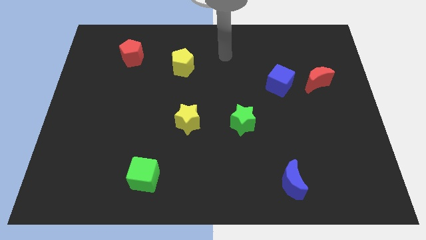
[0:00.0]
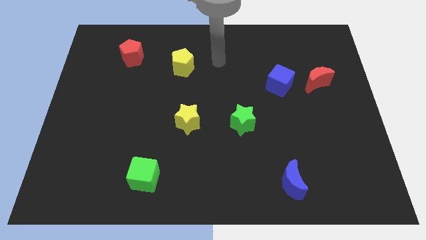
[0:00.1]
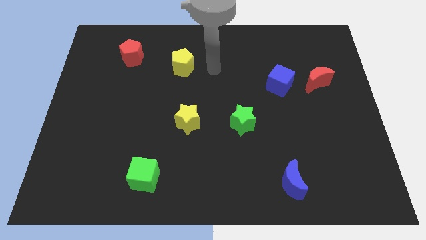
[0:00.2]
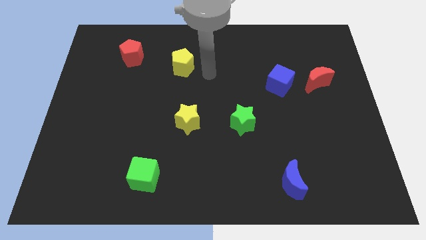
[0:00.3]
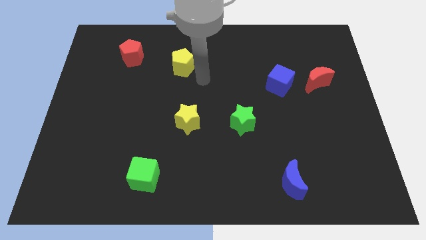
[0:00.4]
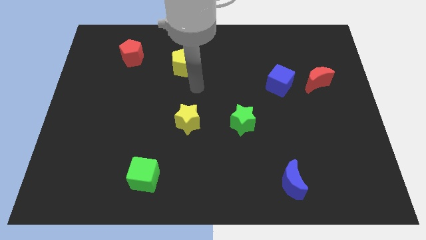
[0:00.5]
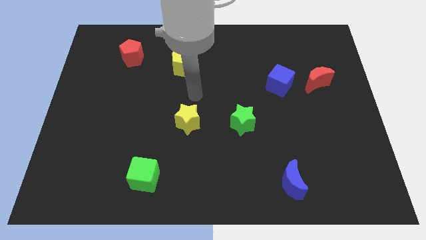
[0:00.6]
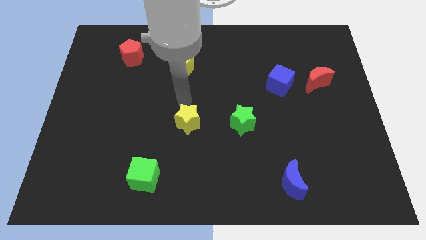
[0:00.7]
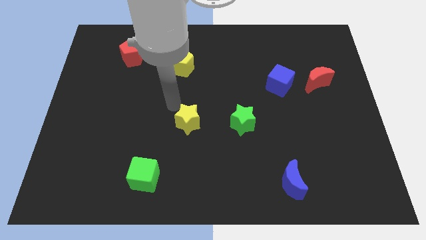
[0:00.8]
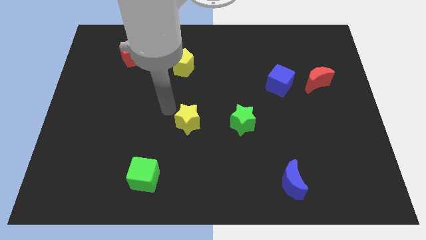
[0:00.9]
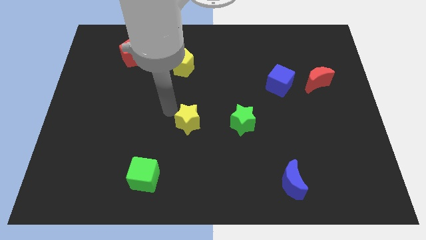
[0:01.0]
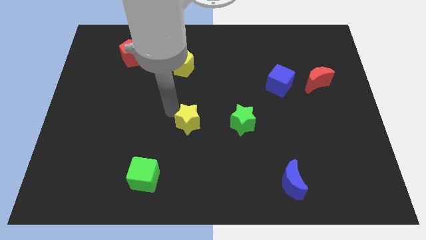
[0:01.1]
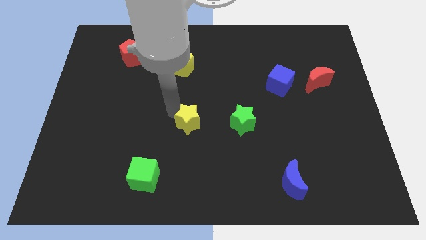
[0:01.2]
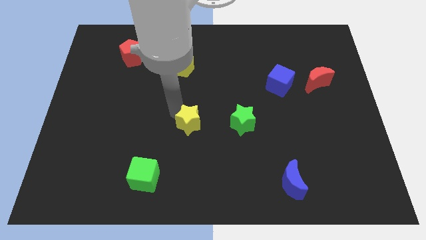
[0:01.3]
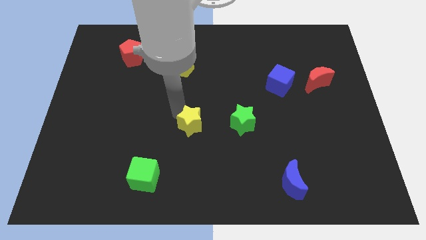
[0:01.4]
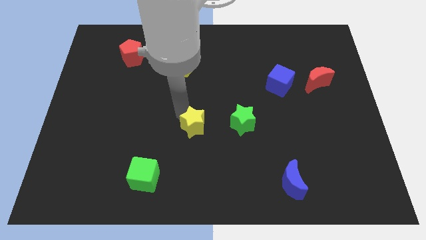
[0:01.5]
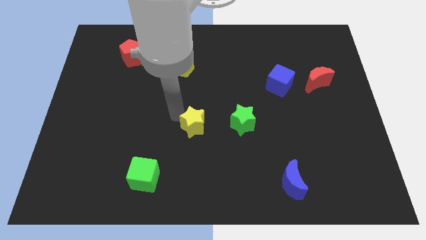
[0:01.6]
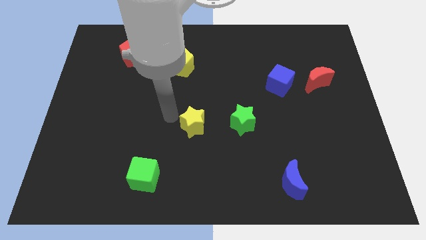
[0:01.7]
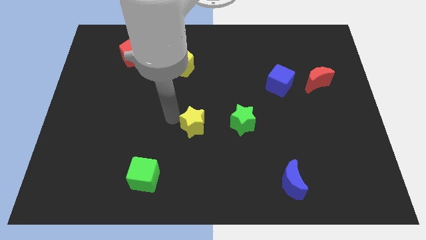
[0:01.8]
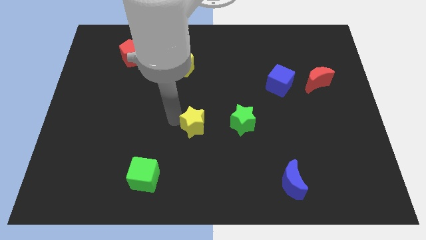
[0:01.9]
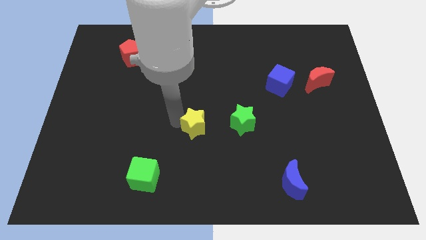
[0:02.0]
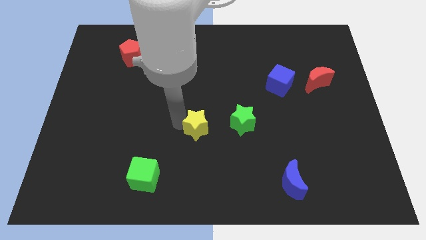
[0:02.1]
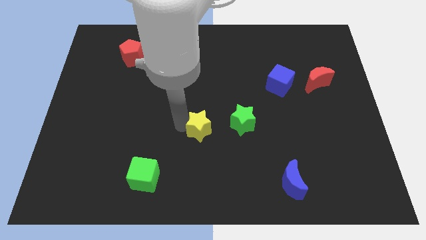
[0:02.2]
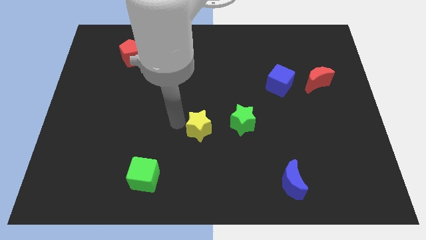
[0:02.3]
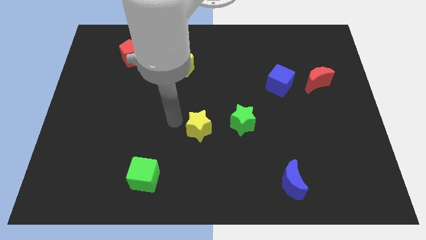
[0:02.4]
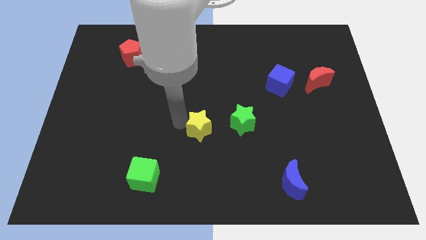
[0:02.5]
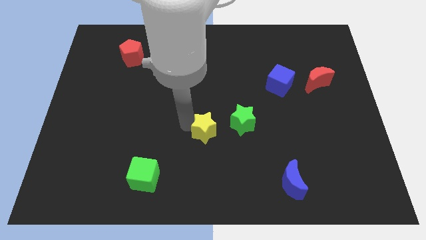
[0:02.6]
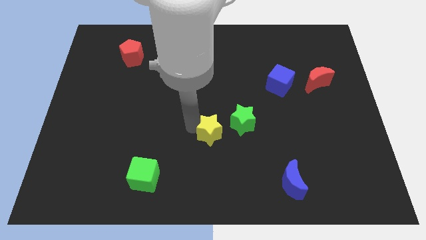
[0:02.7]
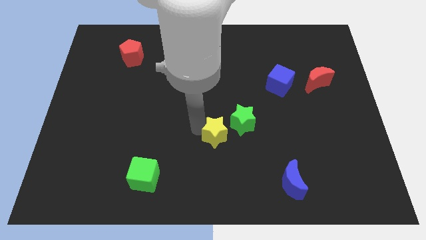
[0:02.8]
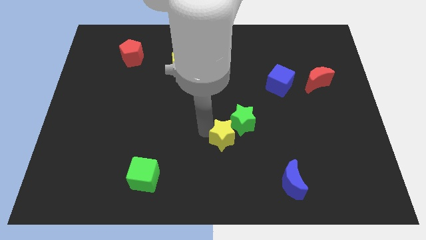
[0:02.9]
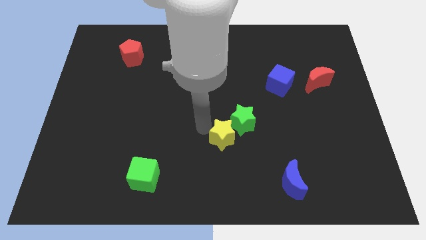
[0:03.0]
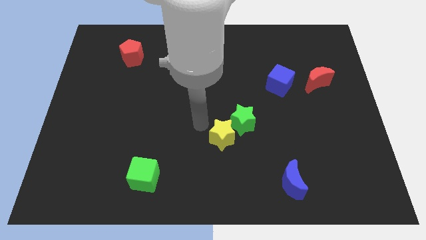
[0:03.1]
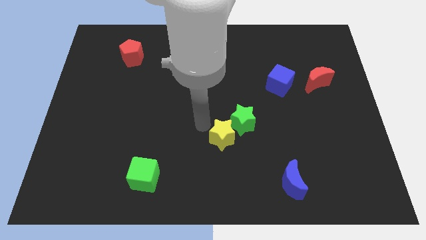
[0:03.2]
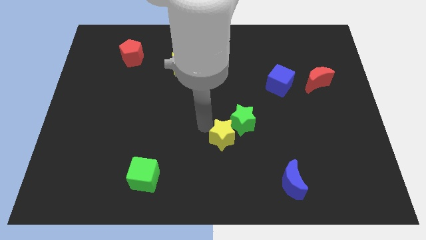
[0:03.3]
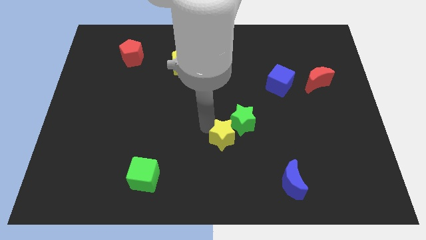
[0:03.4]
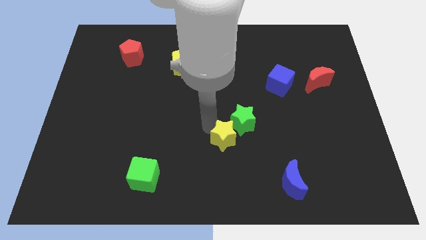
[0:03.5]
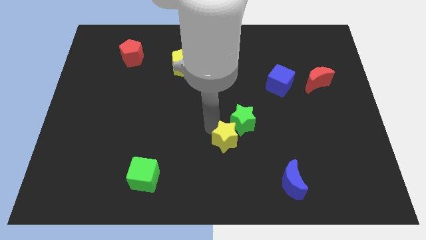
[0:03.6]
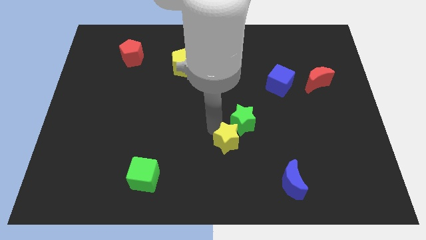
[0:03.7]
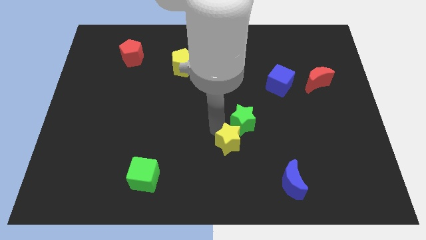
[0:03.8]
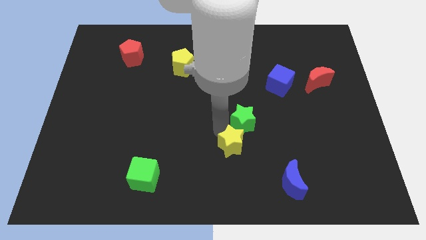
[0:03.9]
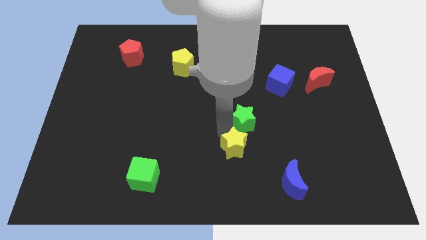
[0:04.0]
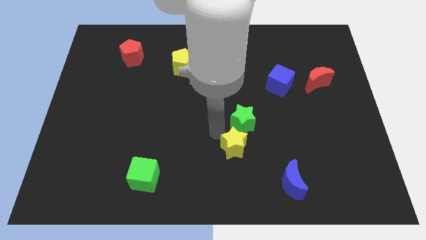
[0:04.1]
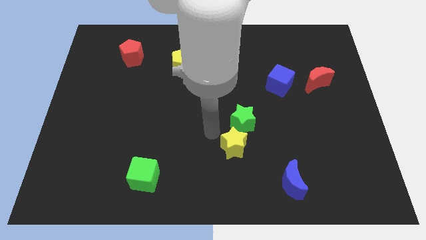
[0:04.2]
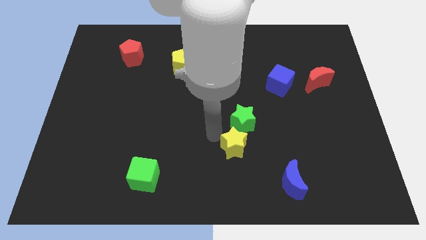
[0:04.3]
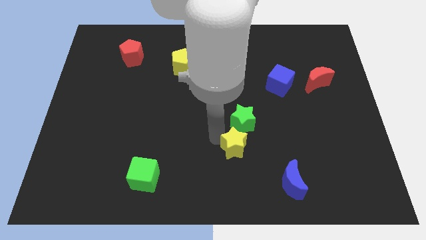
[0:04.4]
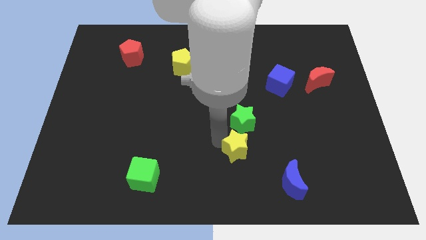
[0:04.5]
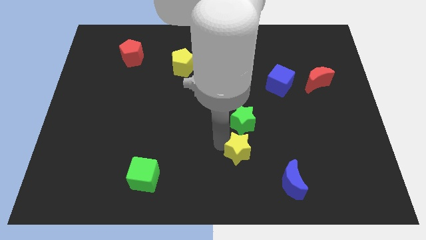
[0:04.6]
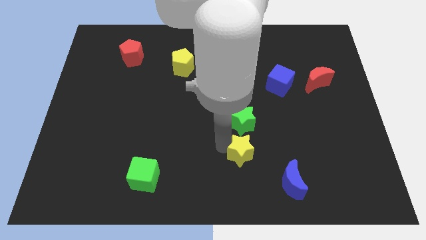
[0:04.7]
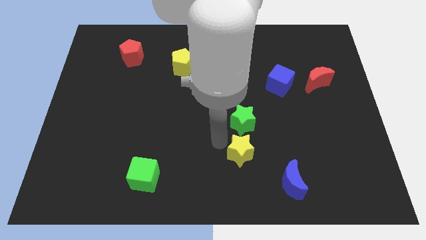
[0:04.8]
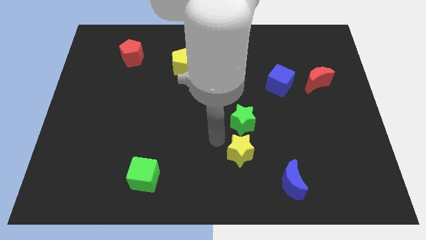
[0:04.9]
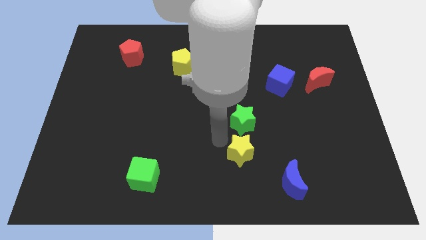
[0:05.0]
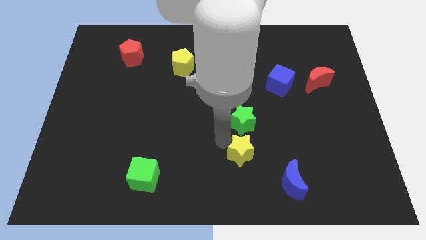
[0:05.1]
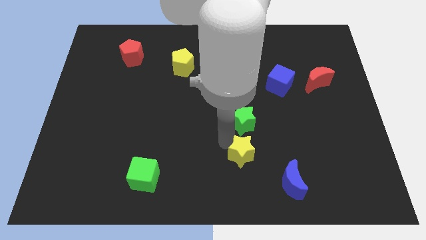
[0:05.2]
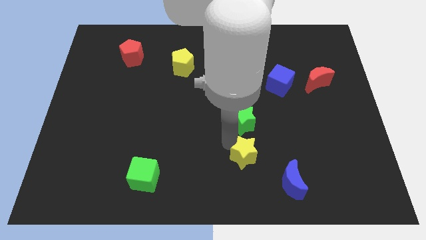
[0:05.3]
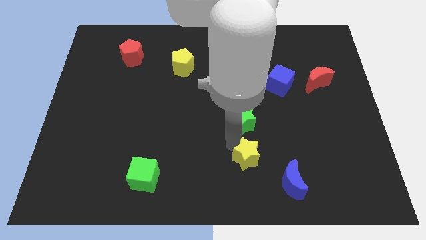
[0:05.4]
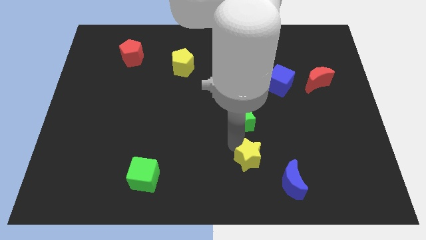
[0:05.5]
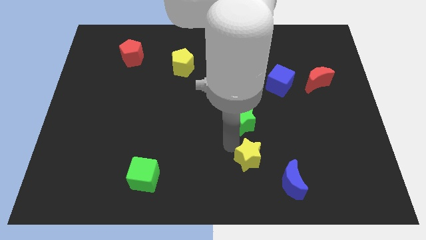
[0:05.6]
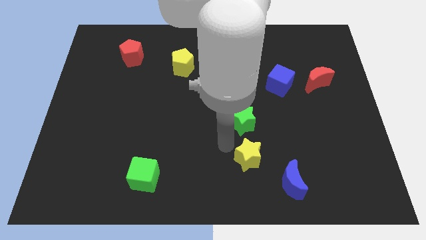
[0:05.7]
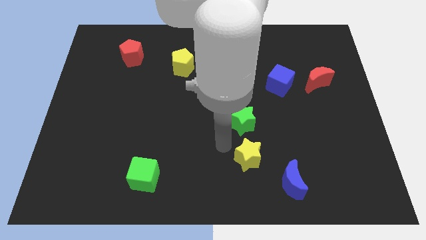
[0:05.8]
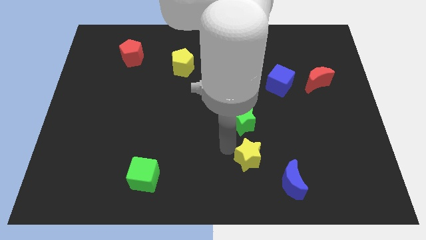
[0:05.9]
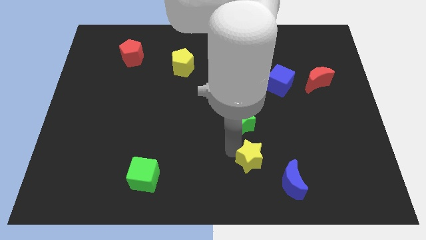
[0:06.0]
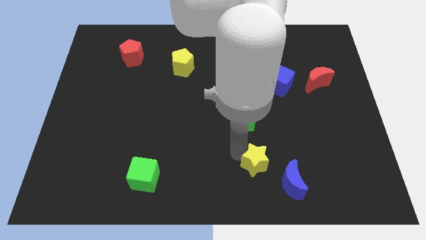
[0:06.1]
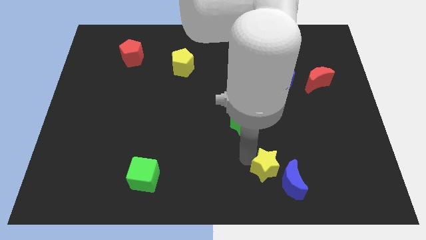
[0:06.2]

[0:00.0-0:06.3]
move the yellow star next to the blue moon

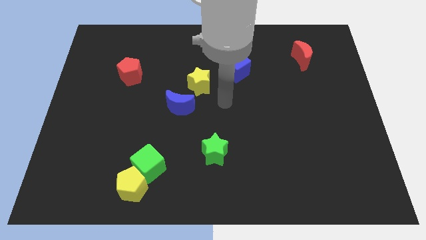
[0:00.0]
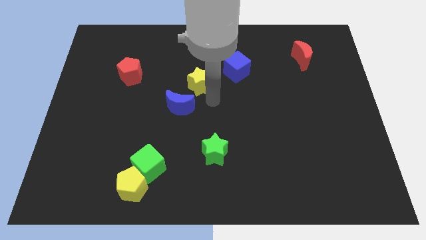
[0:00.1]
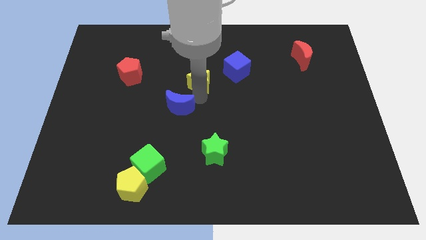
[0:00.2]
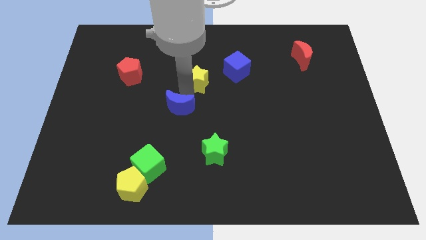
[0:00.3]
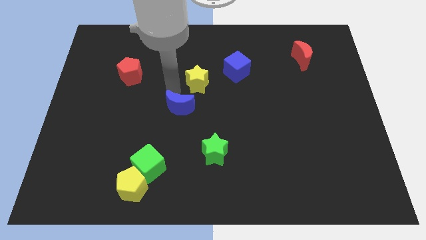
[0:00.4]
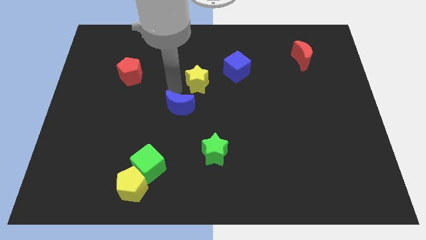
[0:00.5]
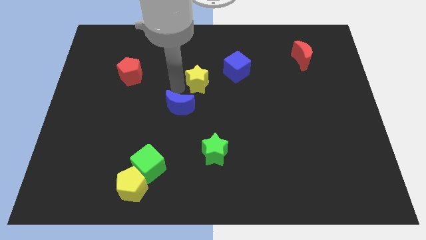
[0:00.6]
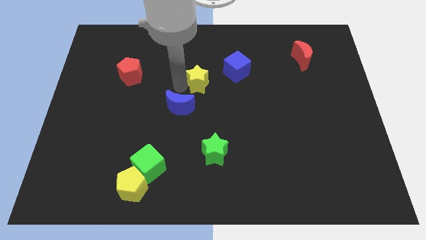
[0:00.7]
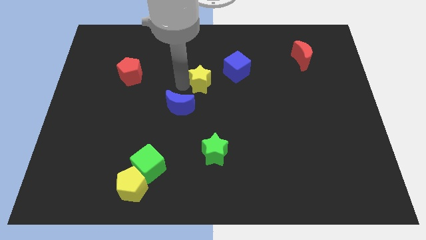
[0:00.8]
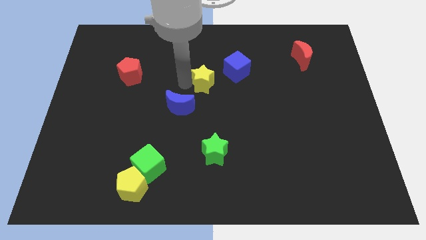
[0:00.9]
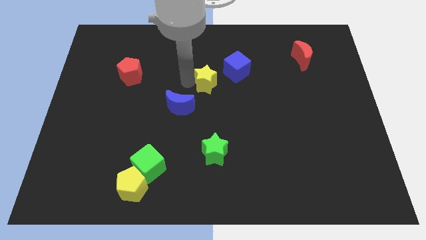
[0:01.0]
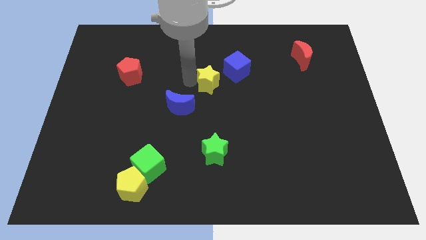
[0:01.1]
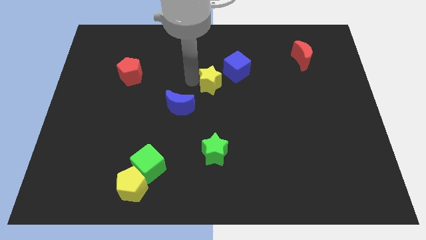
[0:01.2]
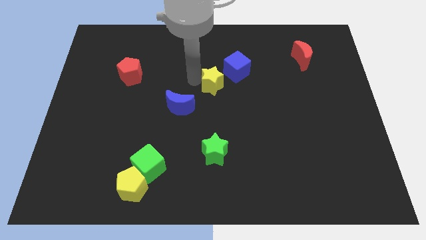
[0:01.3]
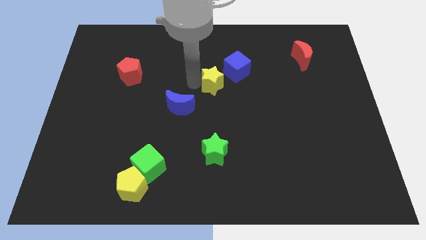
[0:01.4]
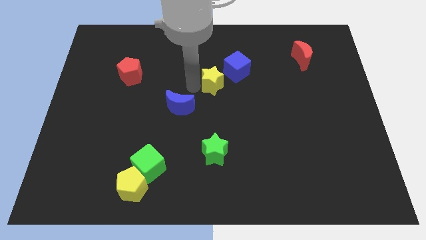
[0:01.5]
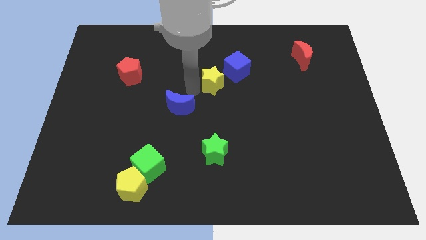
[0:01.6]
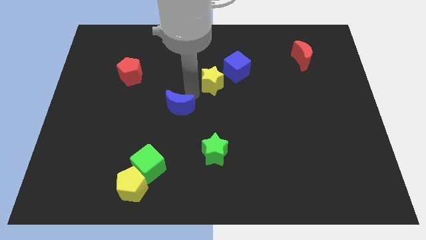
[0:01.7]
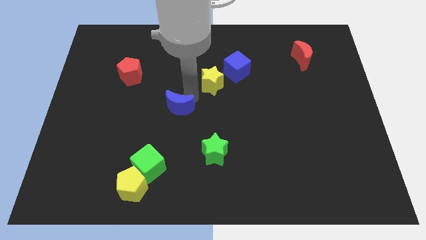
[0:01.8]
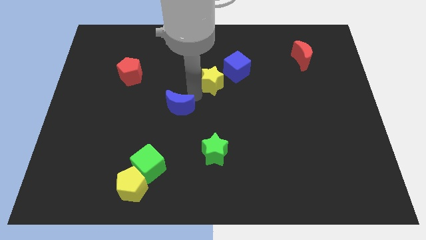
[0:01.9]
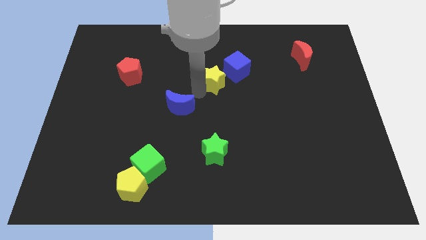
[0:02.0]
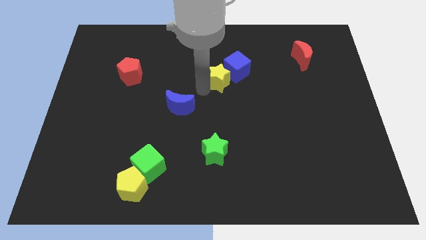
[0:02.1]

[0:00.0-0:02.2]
put the yellow star close to the blue cube
